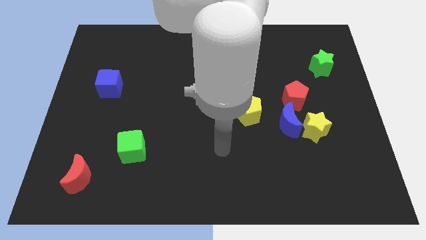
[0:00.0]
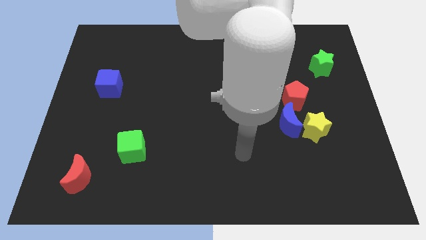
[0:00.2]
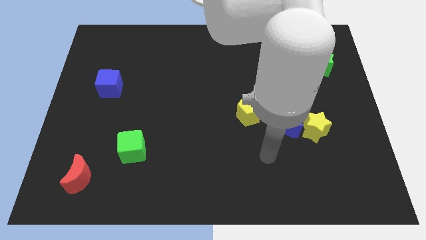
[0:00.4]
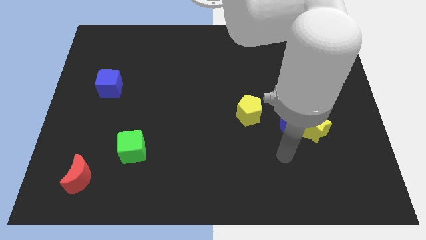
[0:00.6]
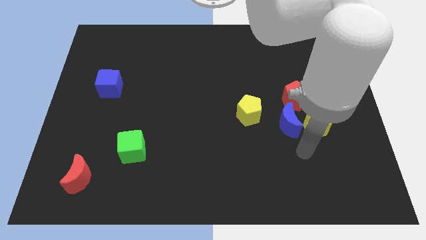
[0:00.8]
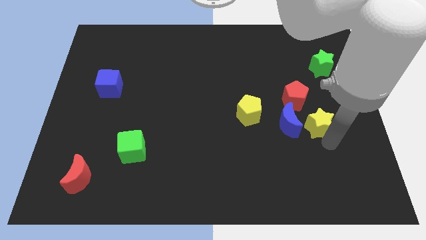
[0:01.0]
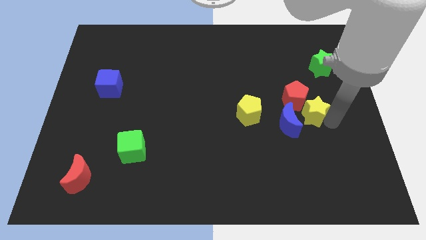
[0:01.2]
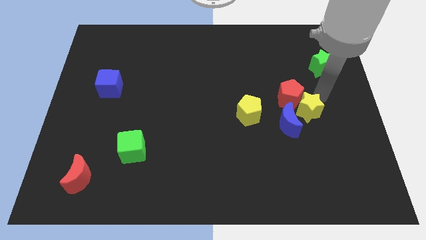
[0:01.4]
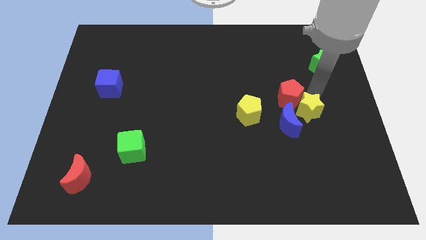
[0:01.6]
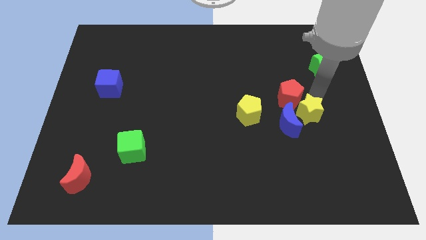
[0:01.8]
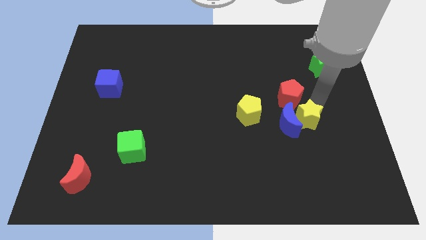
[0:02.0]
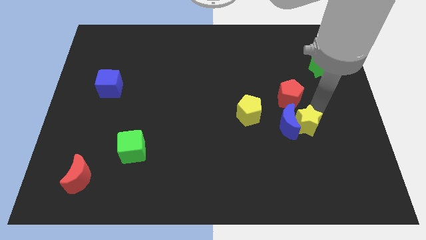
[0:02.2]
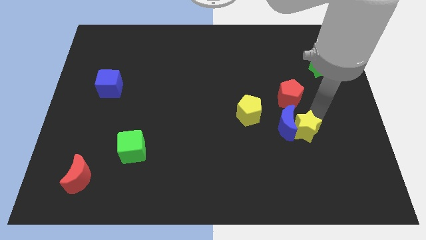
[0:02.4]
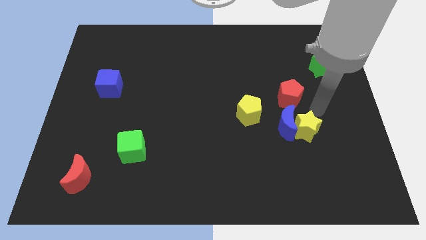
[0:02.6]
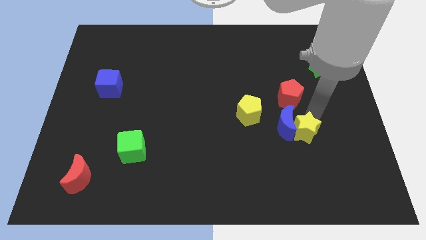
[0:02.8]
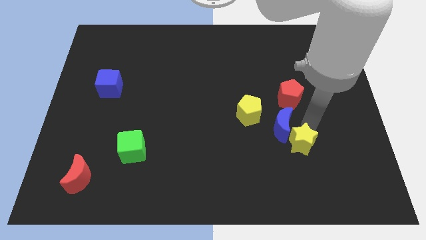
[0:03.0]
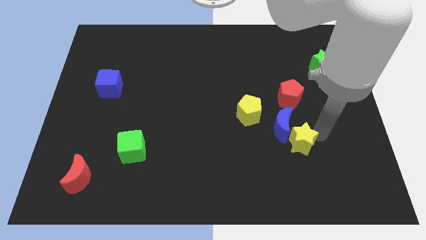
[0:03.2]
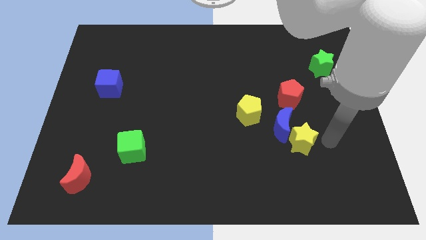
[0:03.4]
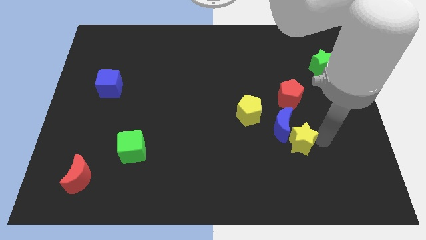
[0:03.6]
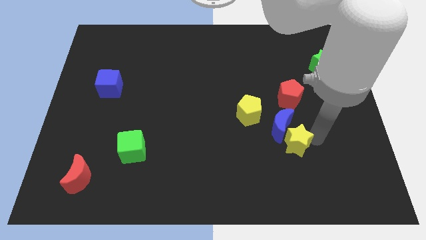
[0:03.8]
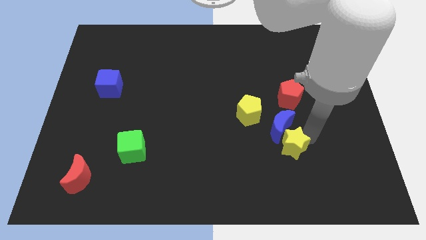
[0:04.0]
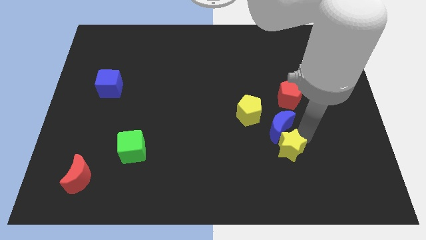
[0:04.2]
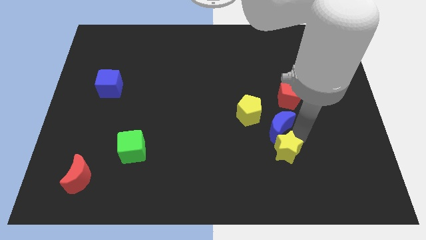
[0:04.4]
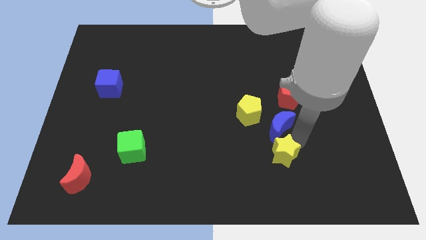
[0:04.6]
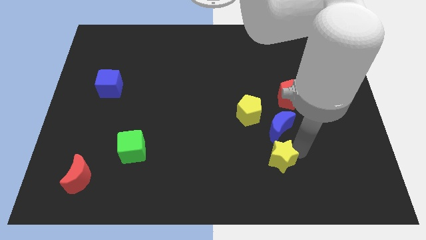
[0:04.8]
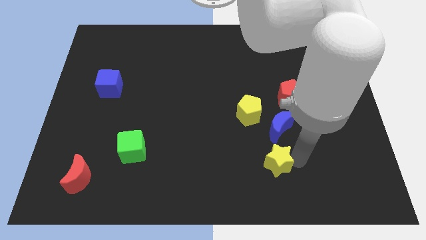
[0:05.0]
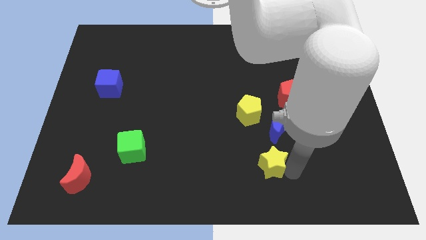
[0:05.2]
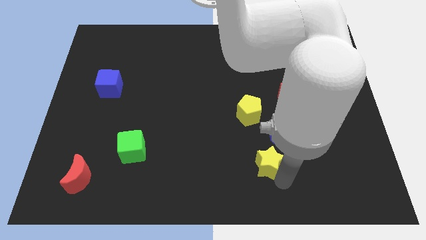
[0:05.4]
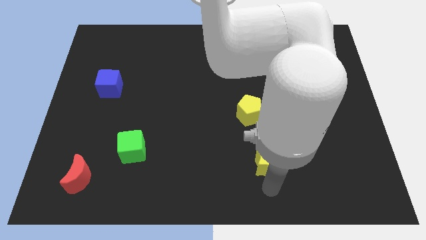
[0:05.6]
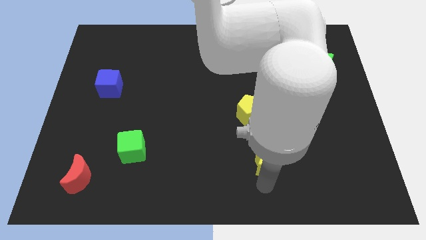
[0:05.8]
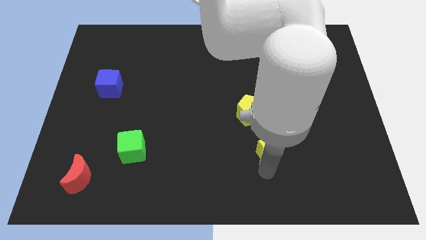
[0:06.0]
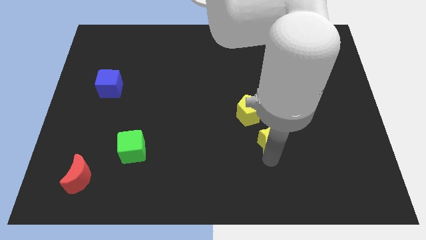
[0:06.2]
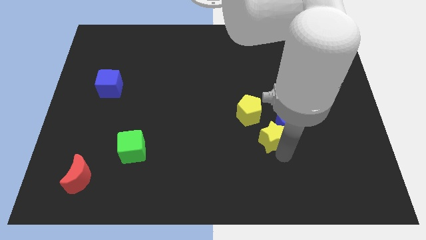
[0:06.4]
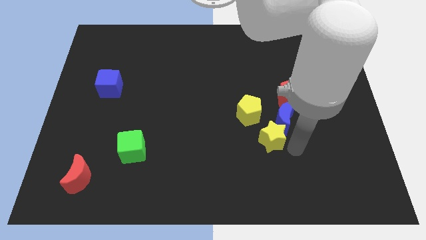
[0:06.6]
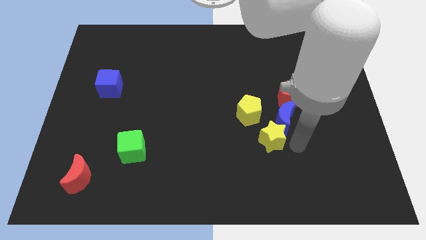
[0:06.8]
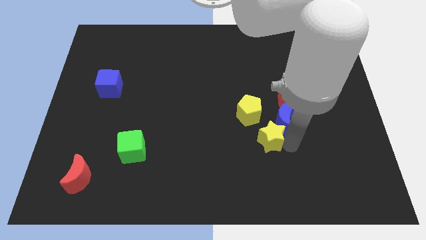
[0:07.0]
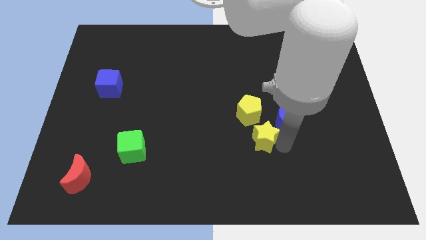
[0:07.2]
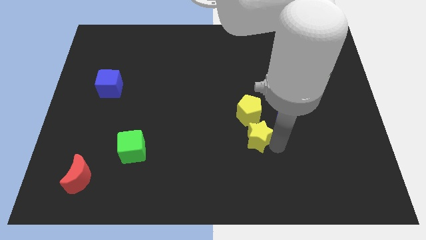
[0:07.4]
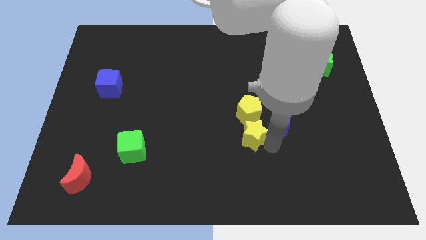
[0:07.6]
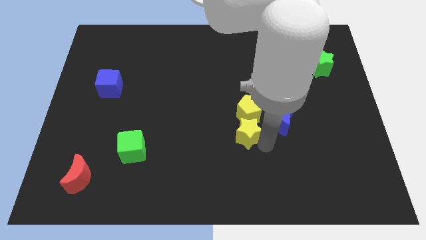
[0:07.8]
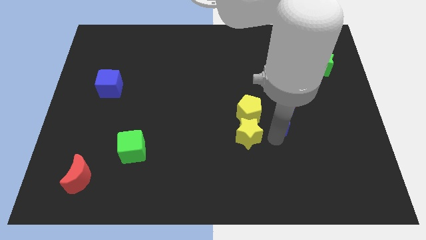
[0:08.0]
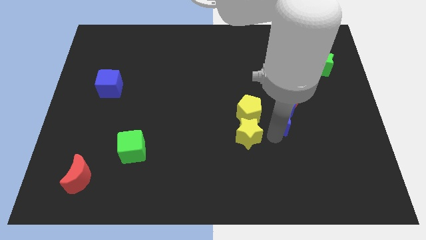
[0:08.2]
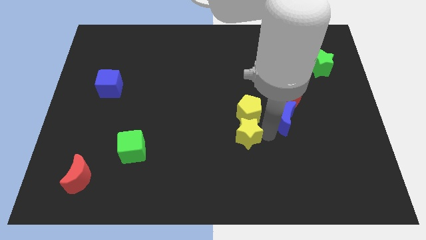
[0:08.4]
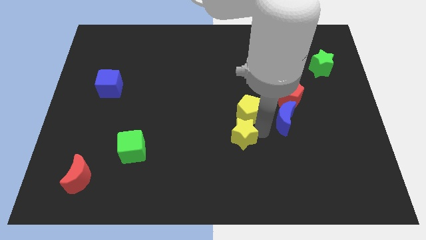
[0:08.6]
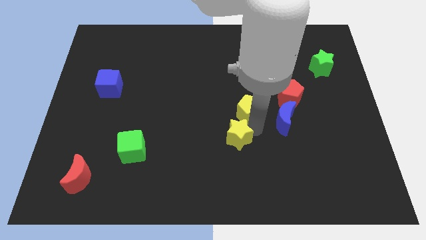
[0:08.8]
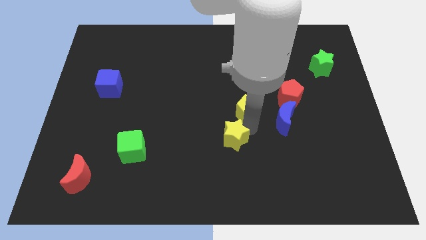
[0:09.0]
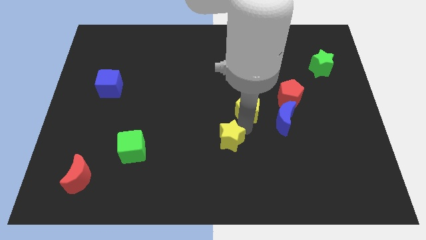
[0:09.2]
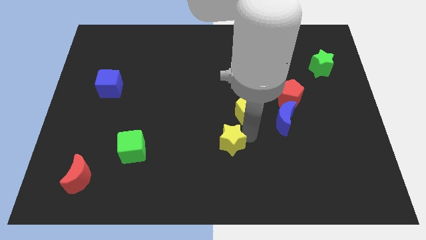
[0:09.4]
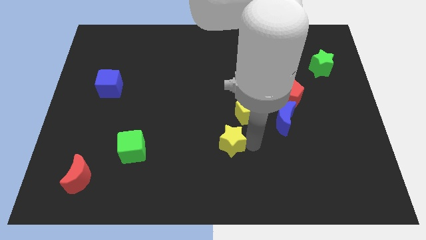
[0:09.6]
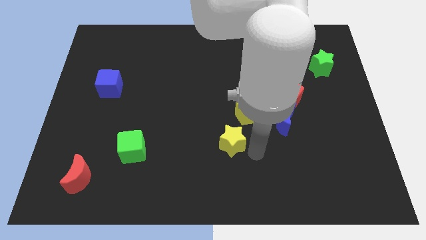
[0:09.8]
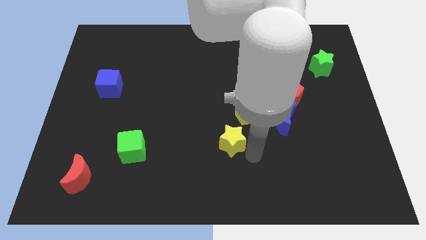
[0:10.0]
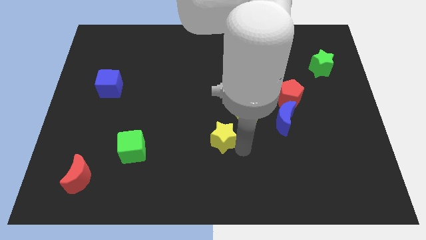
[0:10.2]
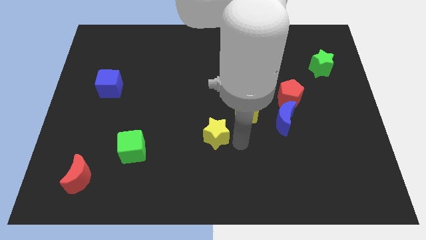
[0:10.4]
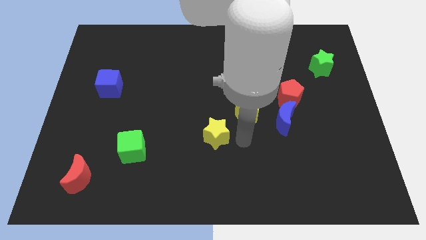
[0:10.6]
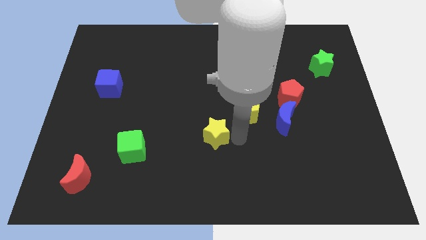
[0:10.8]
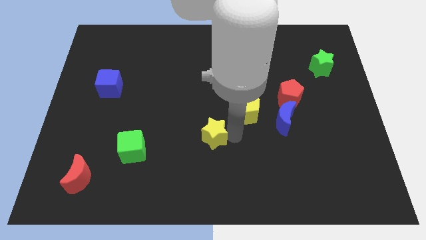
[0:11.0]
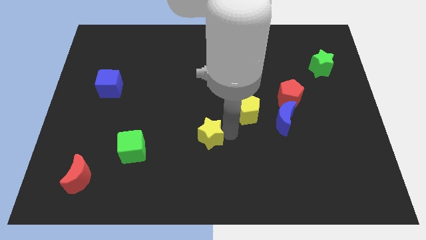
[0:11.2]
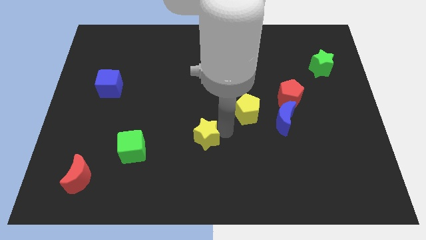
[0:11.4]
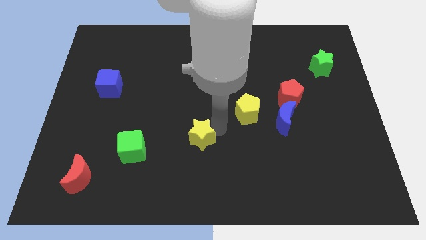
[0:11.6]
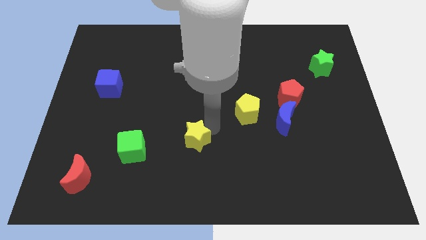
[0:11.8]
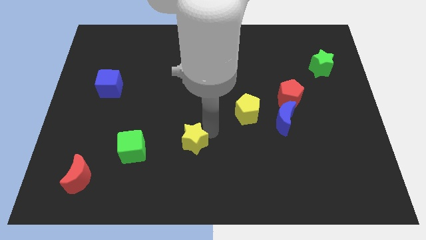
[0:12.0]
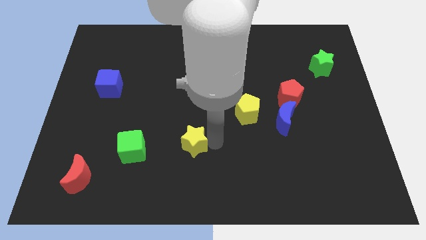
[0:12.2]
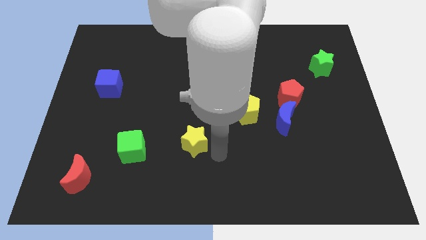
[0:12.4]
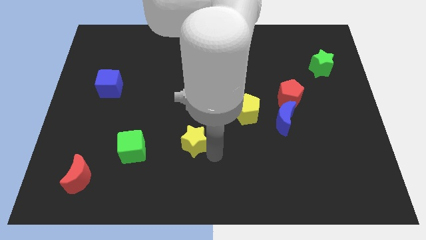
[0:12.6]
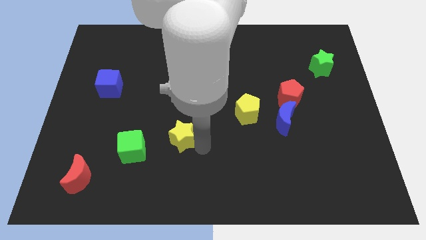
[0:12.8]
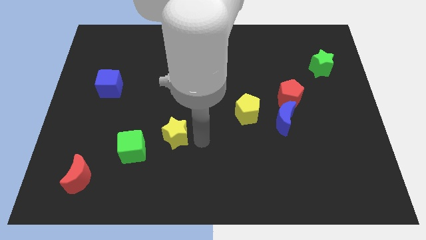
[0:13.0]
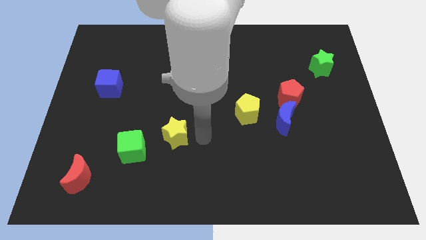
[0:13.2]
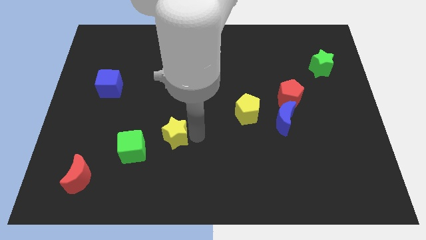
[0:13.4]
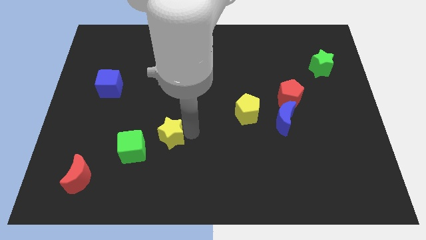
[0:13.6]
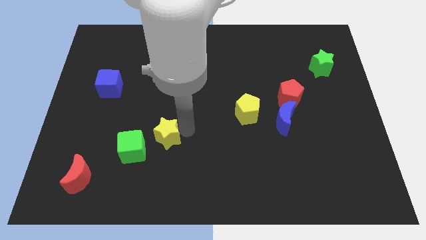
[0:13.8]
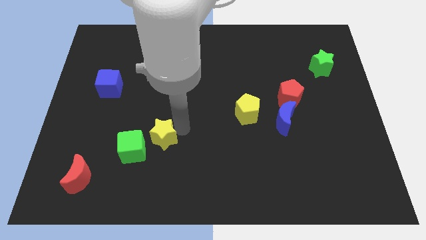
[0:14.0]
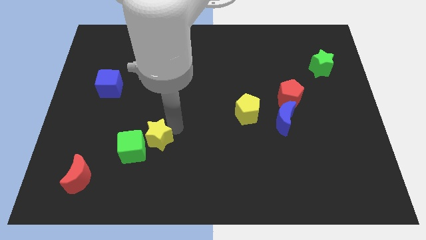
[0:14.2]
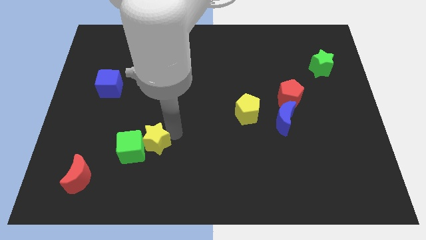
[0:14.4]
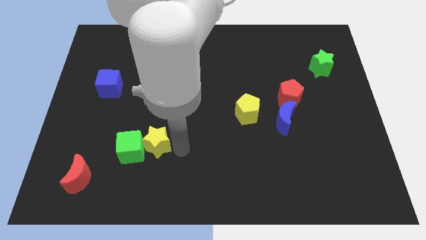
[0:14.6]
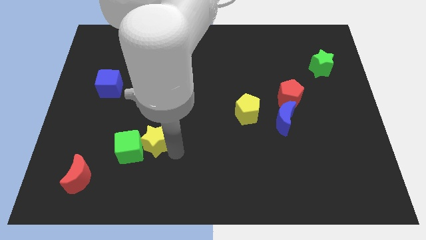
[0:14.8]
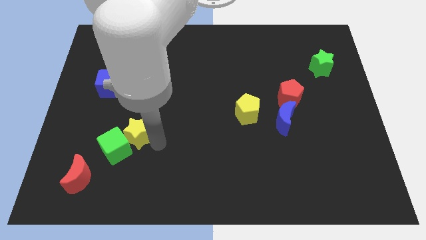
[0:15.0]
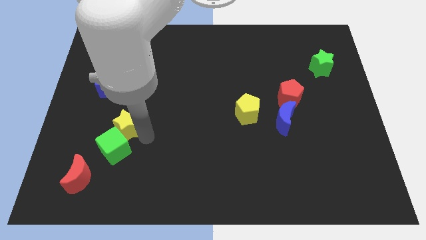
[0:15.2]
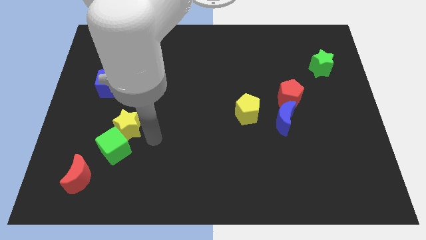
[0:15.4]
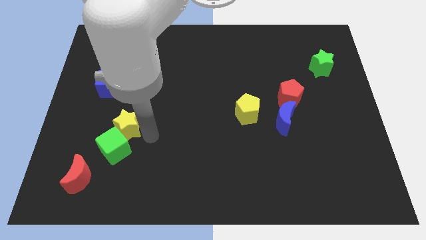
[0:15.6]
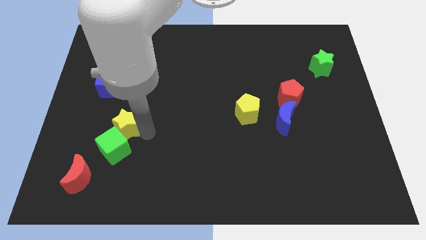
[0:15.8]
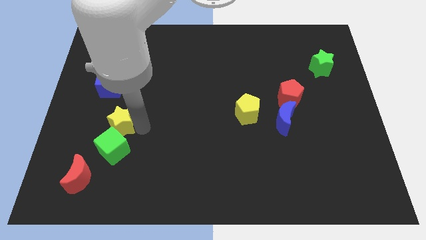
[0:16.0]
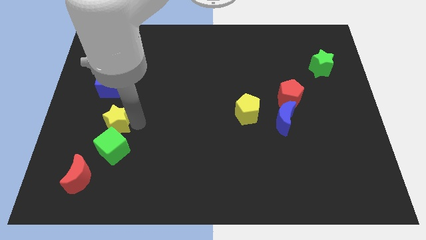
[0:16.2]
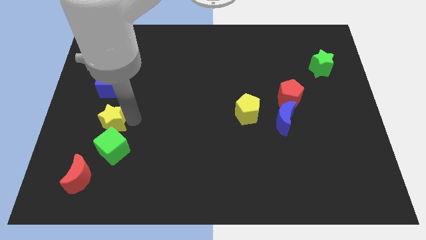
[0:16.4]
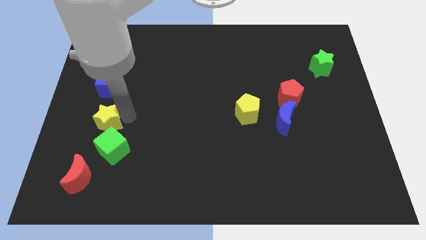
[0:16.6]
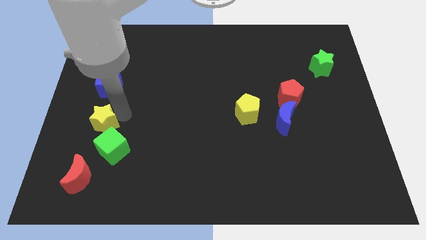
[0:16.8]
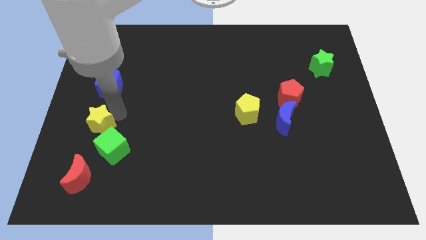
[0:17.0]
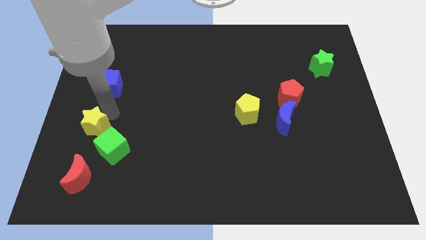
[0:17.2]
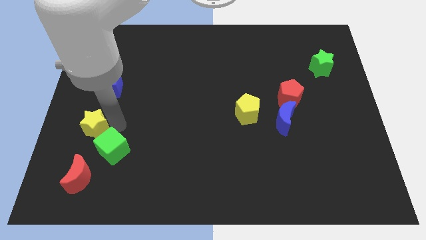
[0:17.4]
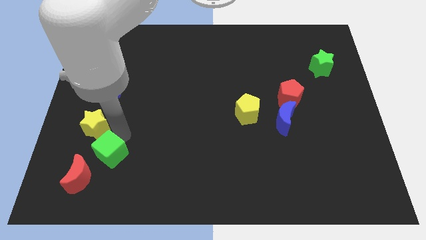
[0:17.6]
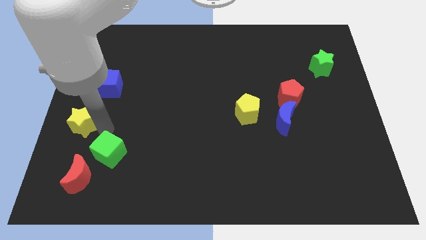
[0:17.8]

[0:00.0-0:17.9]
slide the yellow star to the left side of the board
